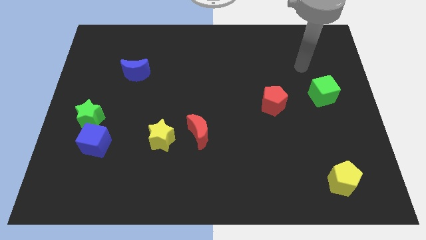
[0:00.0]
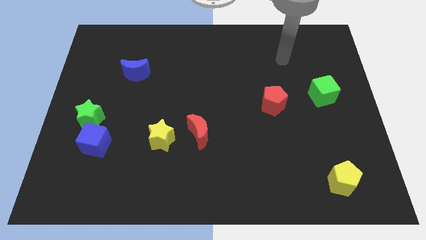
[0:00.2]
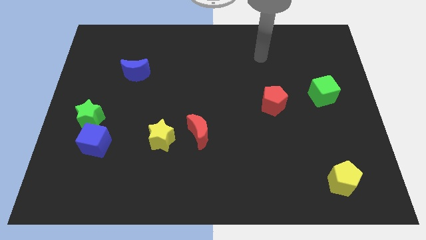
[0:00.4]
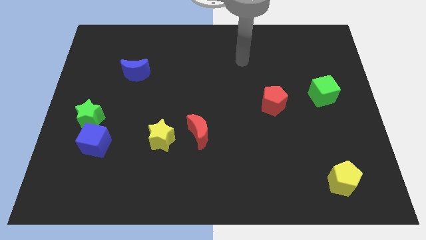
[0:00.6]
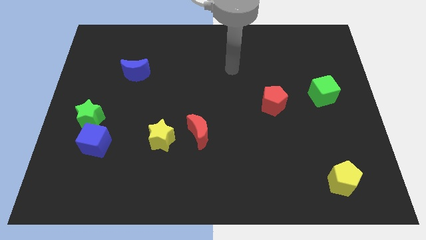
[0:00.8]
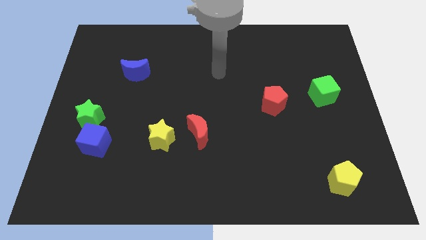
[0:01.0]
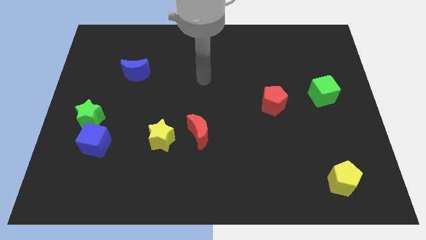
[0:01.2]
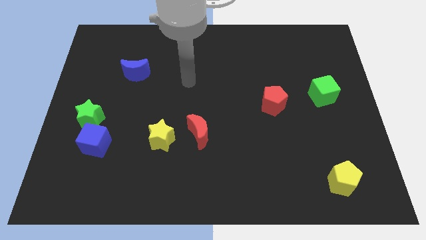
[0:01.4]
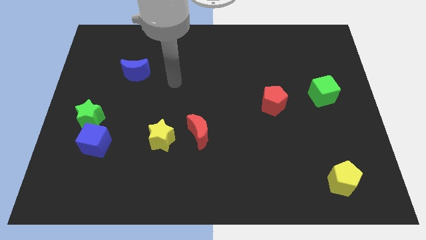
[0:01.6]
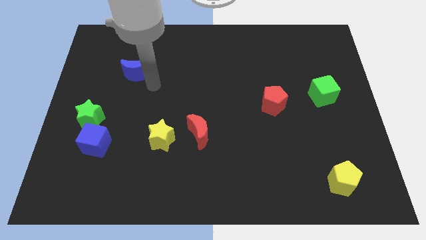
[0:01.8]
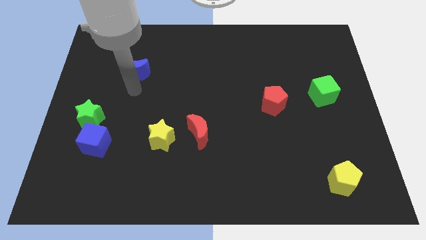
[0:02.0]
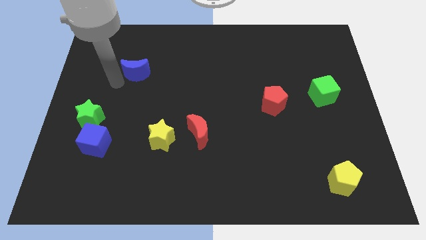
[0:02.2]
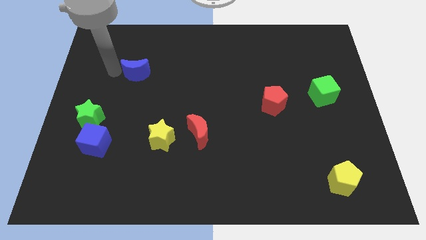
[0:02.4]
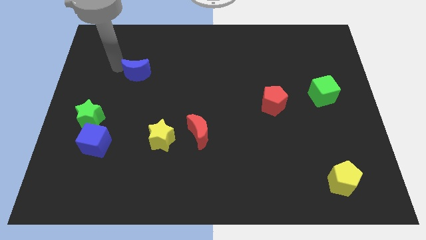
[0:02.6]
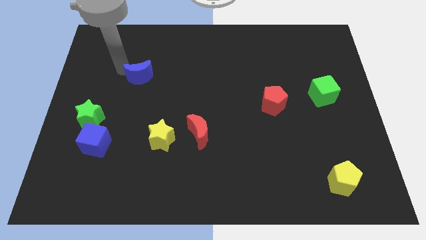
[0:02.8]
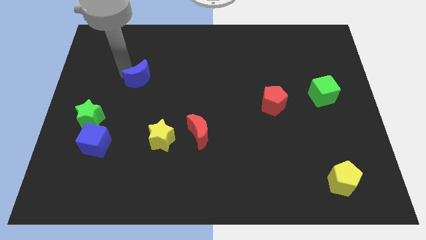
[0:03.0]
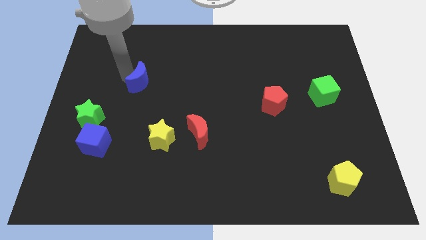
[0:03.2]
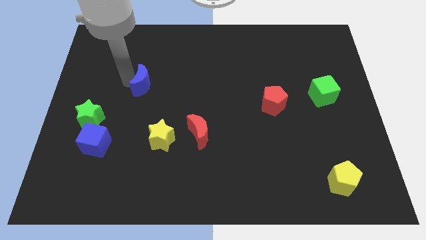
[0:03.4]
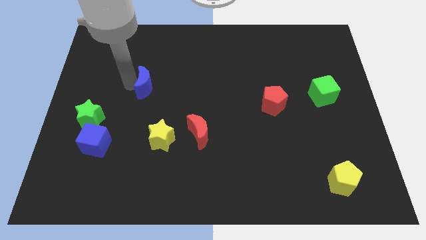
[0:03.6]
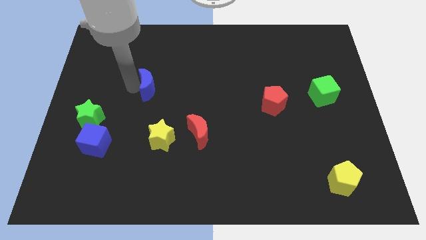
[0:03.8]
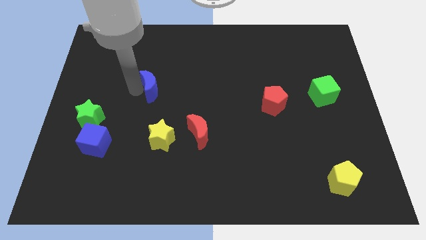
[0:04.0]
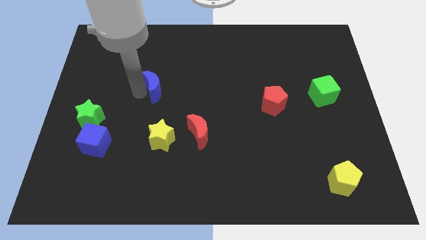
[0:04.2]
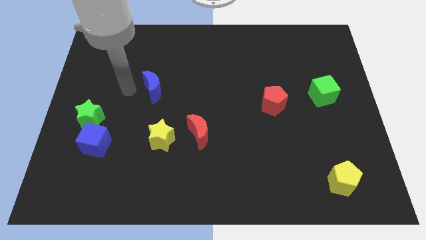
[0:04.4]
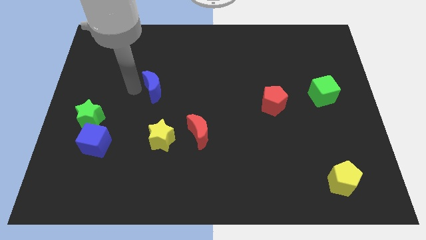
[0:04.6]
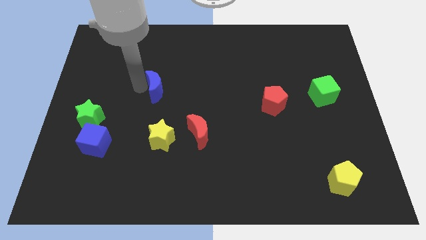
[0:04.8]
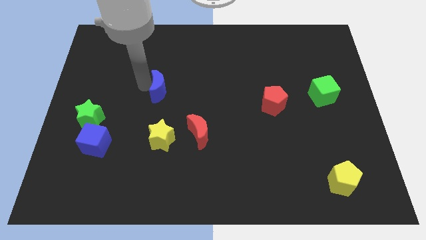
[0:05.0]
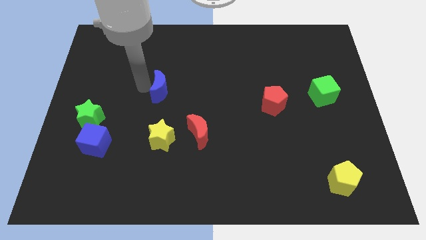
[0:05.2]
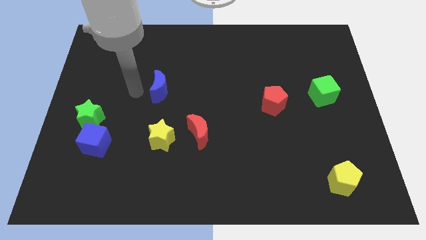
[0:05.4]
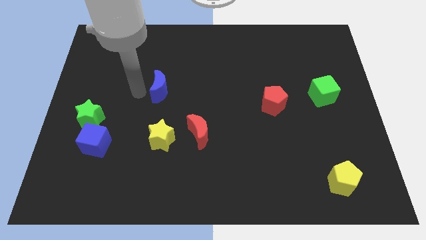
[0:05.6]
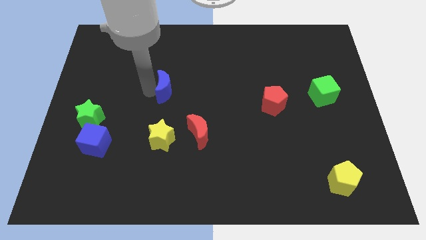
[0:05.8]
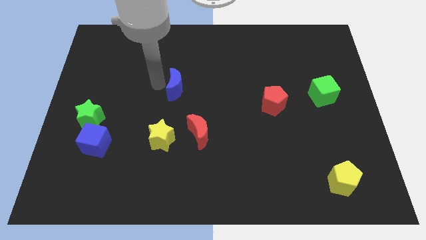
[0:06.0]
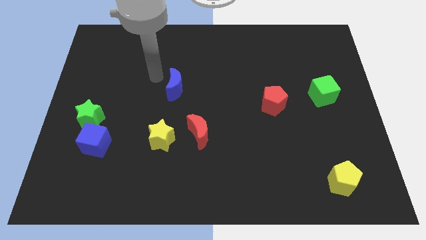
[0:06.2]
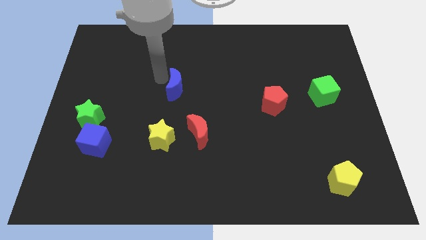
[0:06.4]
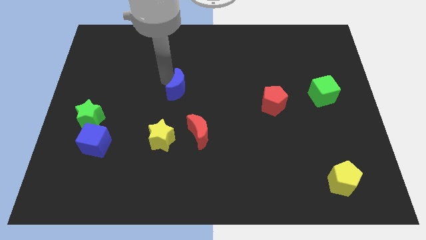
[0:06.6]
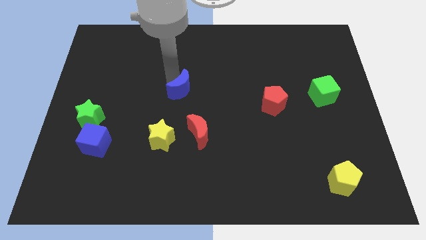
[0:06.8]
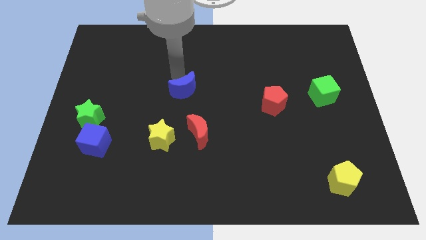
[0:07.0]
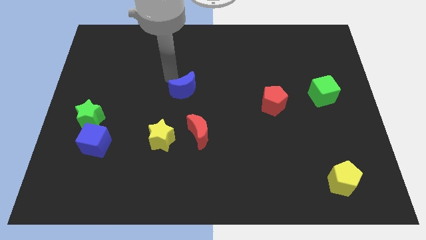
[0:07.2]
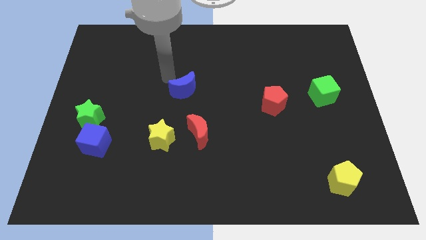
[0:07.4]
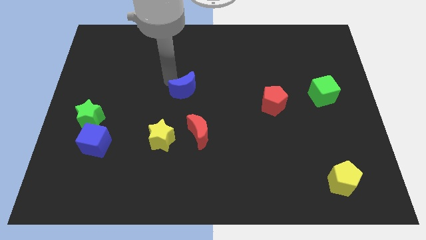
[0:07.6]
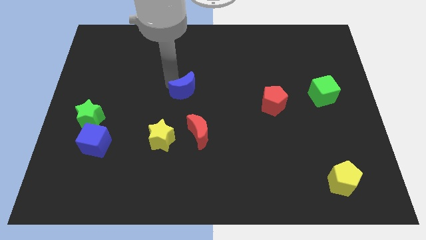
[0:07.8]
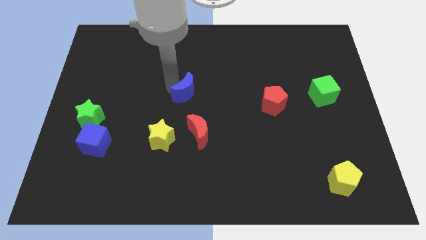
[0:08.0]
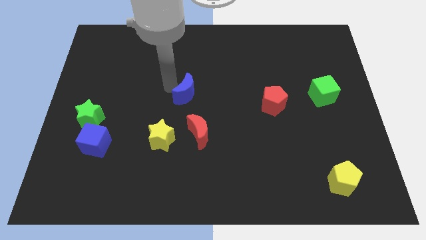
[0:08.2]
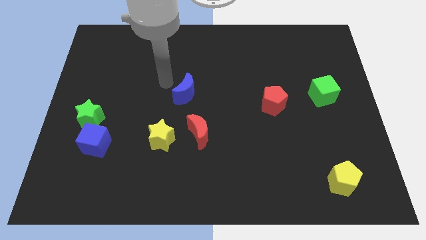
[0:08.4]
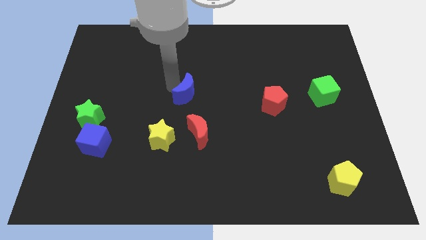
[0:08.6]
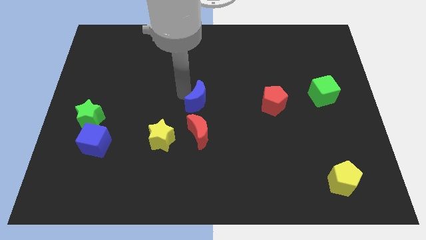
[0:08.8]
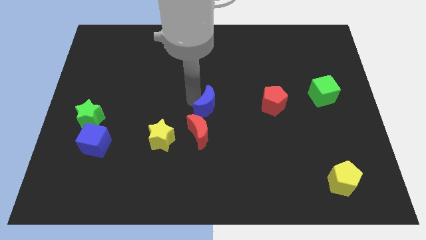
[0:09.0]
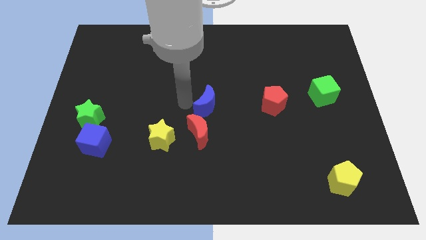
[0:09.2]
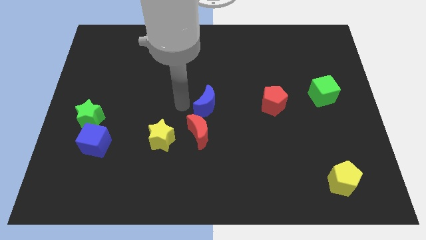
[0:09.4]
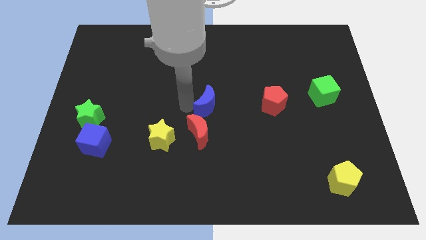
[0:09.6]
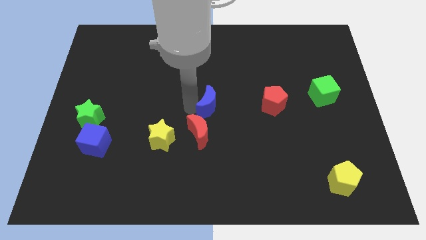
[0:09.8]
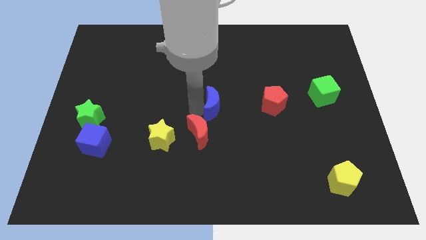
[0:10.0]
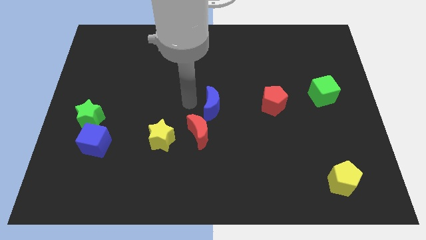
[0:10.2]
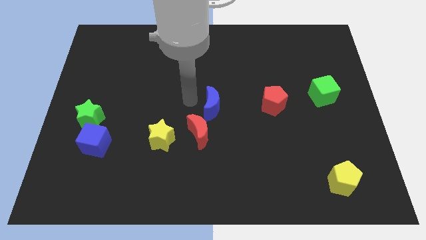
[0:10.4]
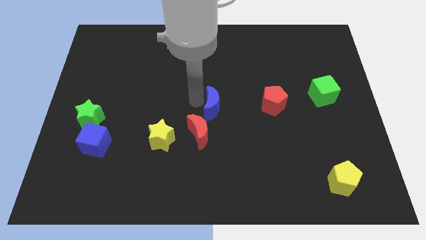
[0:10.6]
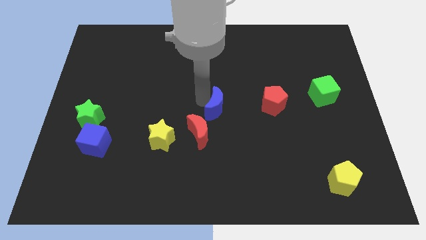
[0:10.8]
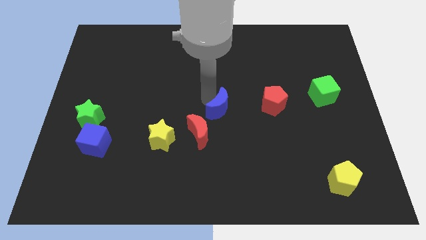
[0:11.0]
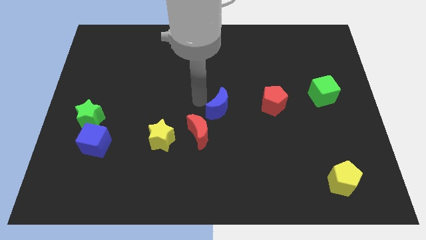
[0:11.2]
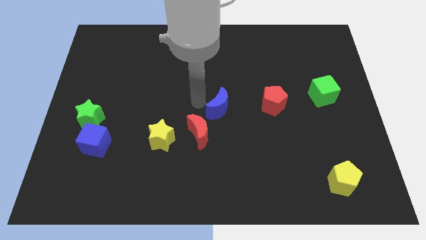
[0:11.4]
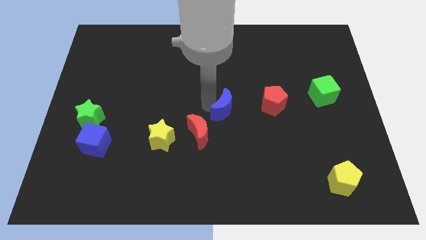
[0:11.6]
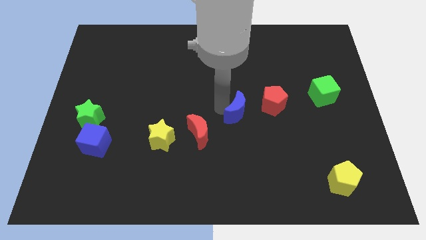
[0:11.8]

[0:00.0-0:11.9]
slide the blue moon to the bottom left side of the red pentagon
